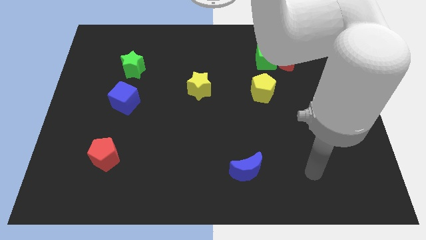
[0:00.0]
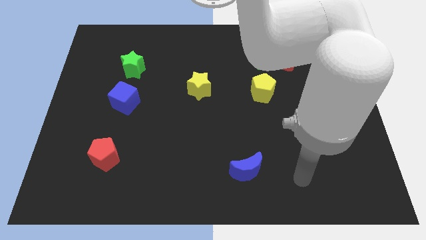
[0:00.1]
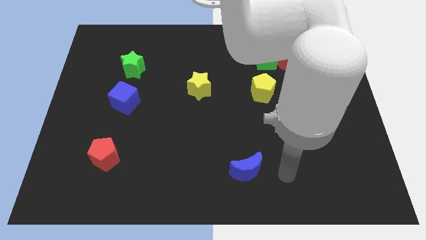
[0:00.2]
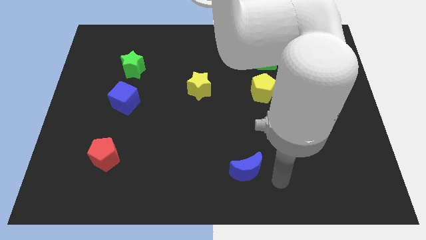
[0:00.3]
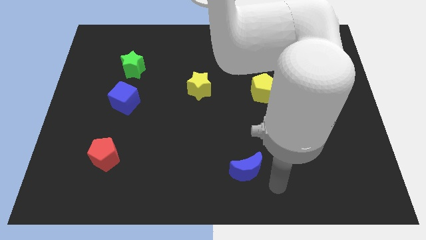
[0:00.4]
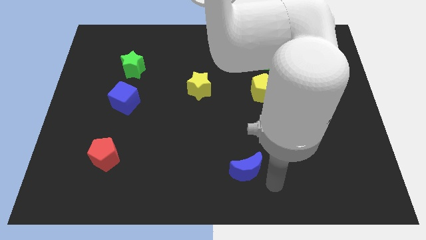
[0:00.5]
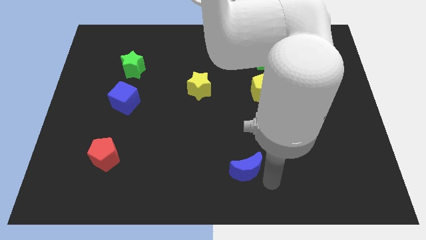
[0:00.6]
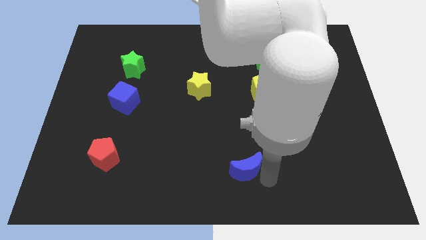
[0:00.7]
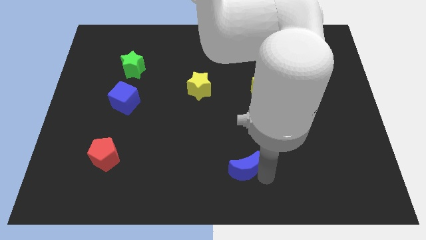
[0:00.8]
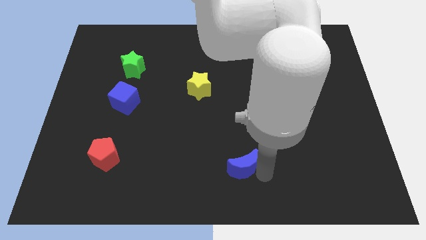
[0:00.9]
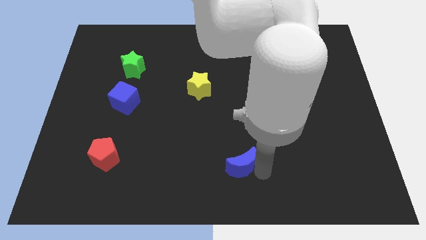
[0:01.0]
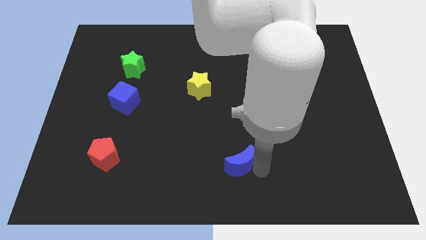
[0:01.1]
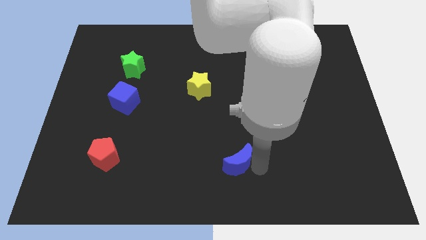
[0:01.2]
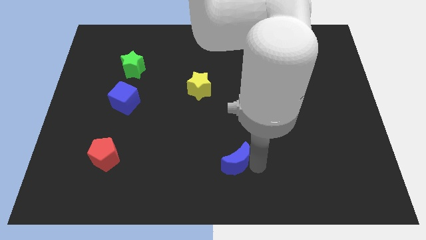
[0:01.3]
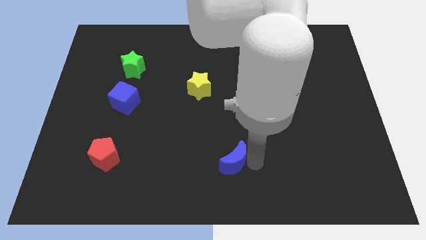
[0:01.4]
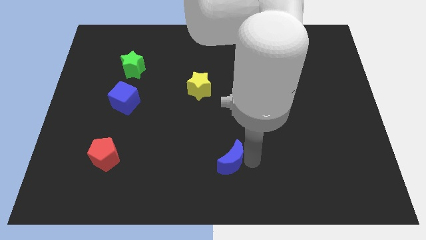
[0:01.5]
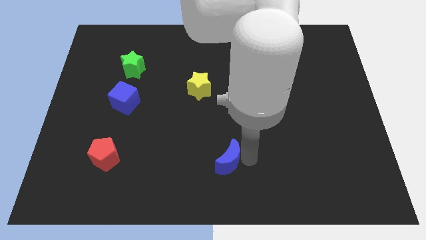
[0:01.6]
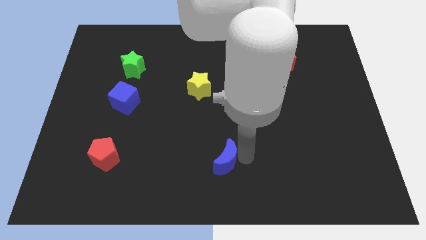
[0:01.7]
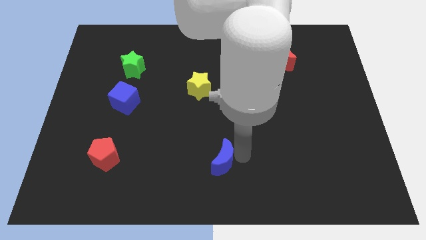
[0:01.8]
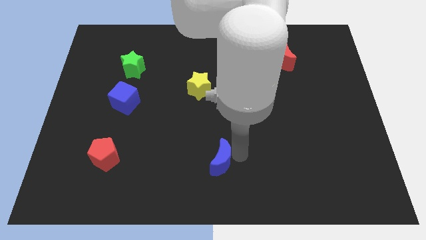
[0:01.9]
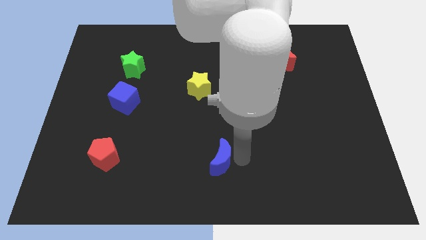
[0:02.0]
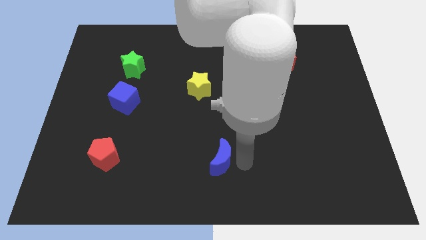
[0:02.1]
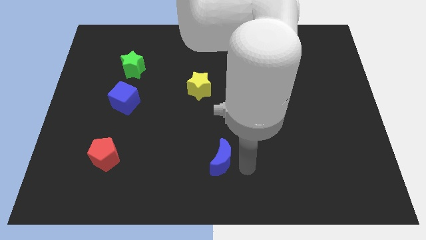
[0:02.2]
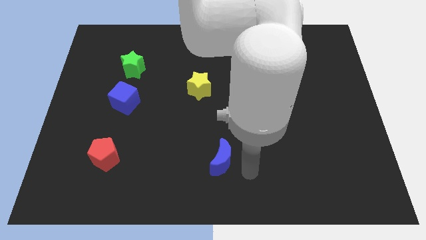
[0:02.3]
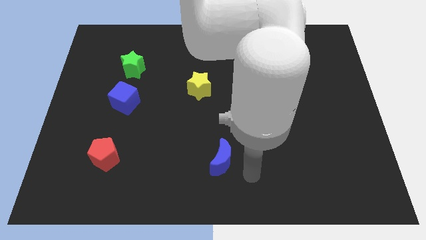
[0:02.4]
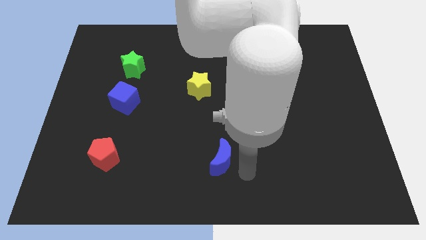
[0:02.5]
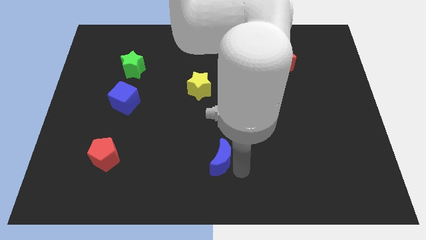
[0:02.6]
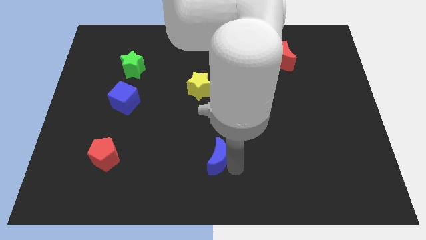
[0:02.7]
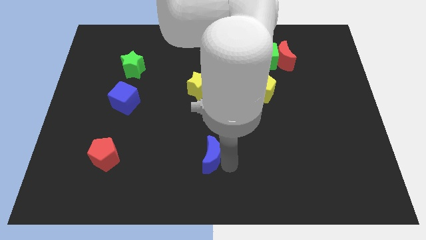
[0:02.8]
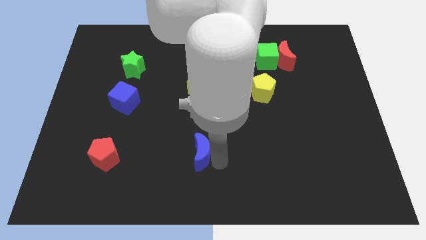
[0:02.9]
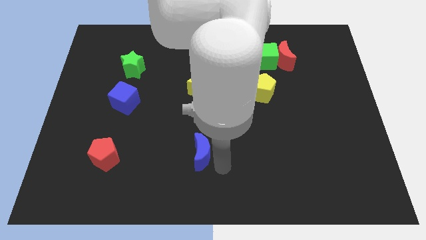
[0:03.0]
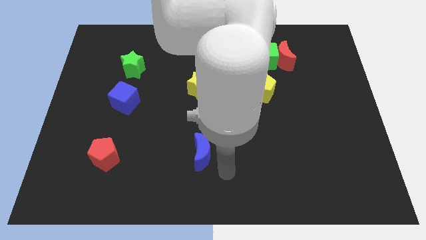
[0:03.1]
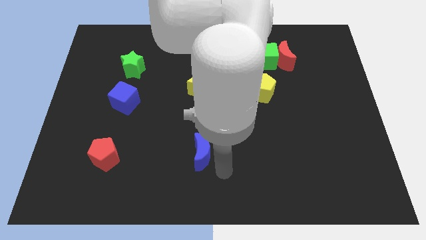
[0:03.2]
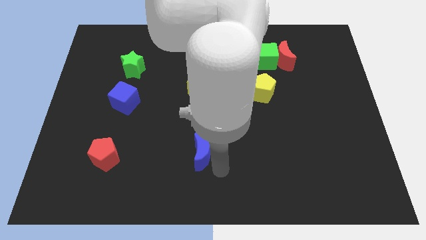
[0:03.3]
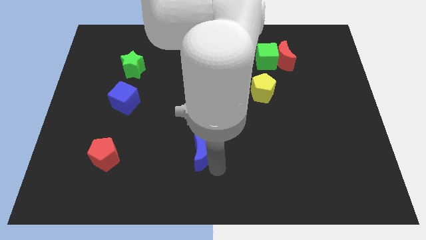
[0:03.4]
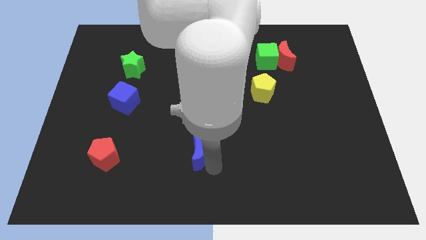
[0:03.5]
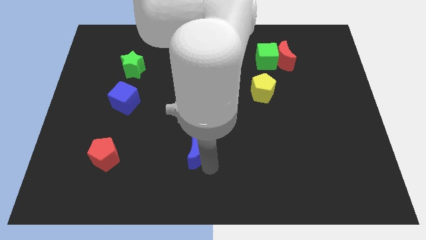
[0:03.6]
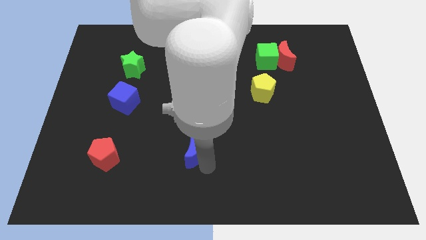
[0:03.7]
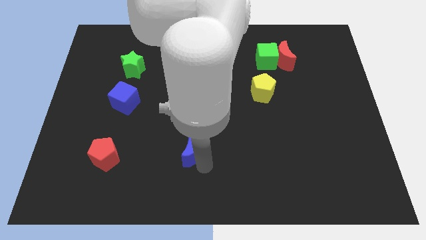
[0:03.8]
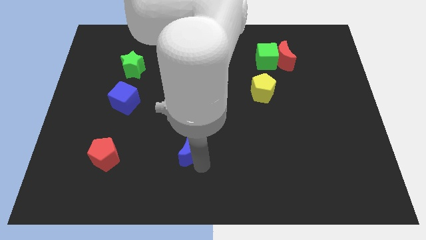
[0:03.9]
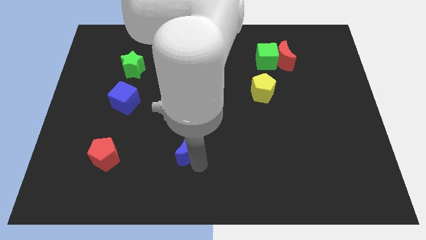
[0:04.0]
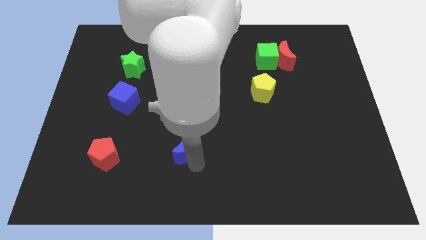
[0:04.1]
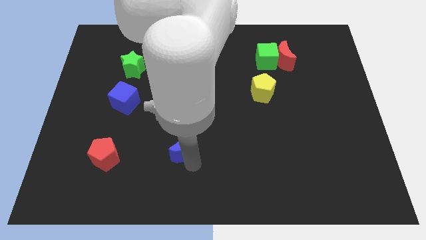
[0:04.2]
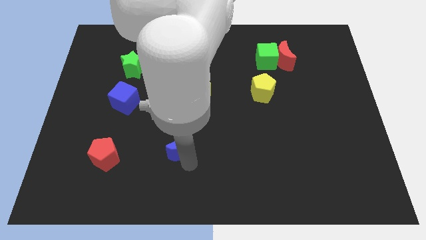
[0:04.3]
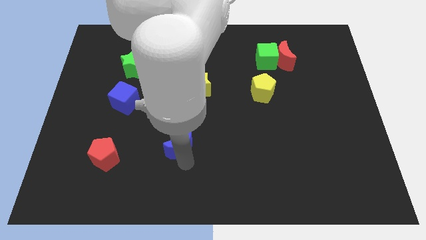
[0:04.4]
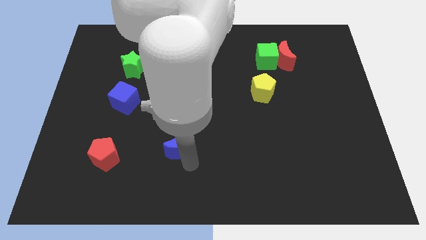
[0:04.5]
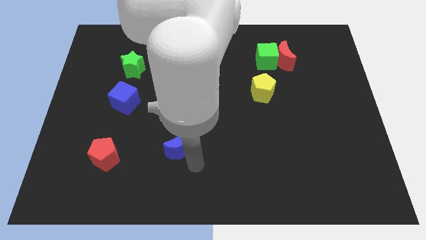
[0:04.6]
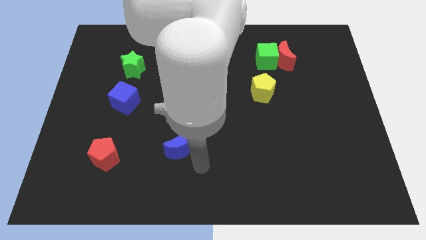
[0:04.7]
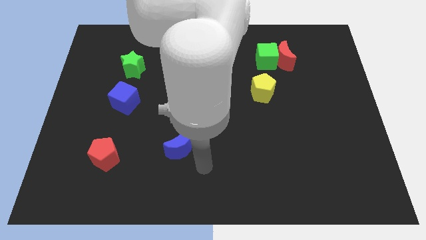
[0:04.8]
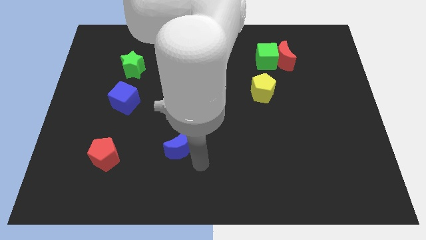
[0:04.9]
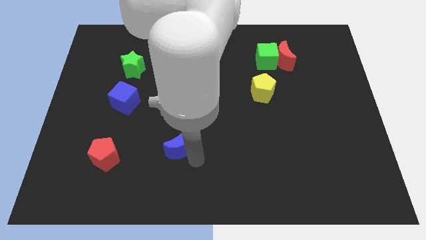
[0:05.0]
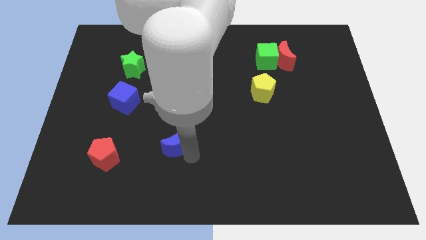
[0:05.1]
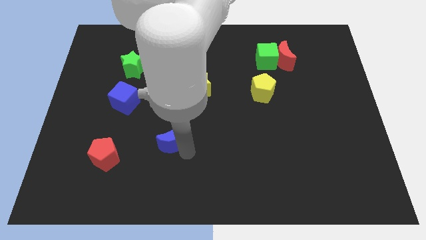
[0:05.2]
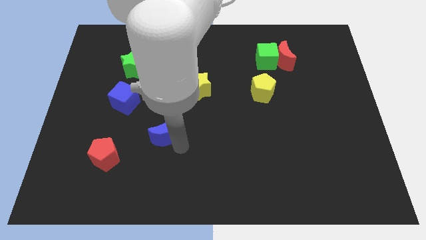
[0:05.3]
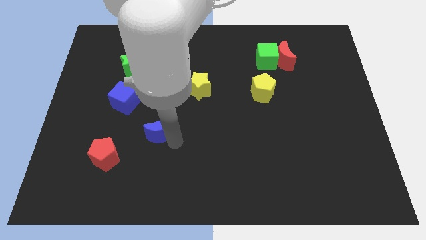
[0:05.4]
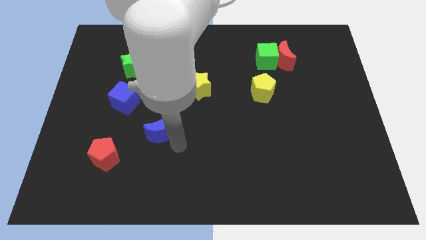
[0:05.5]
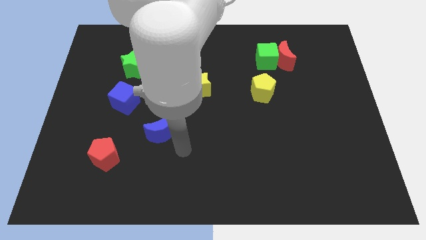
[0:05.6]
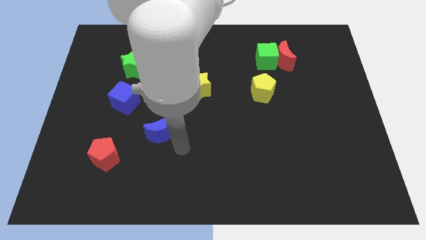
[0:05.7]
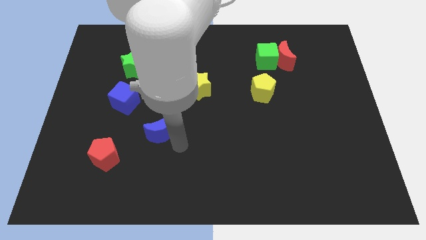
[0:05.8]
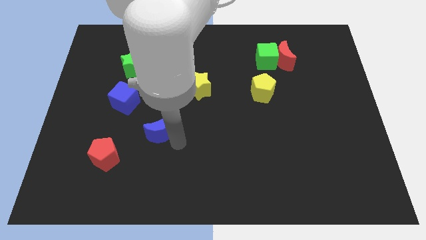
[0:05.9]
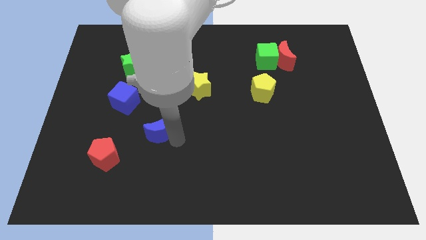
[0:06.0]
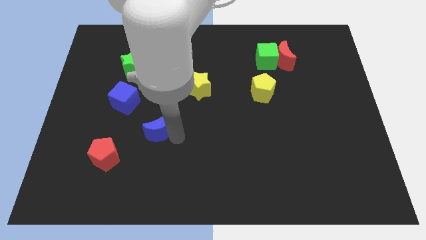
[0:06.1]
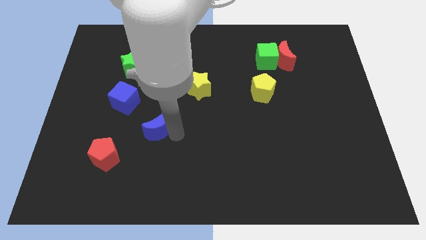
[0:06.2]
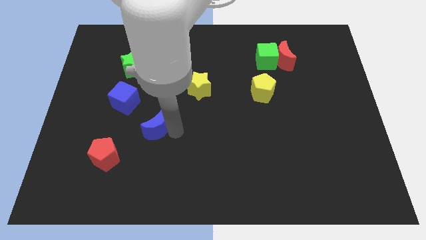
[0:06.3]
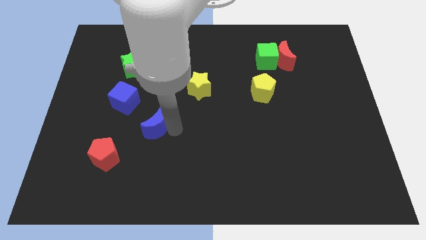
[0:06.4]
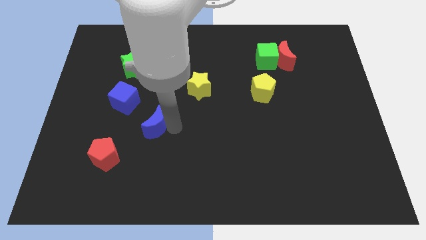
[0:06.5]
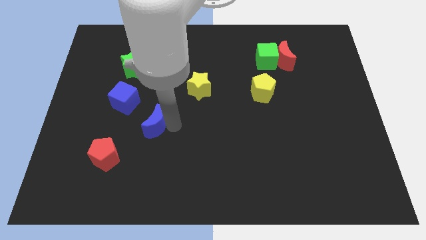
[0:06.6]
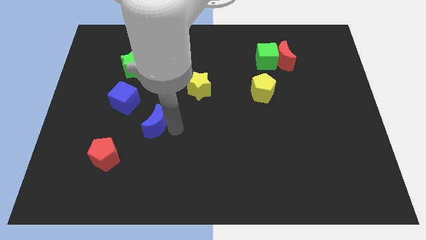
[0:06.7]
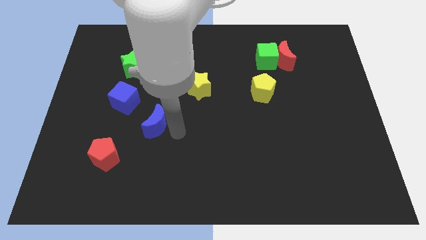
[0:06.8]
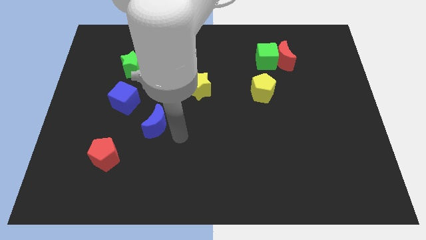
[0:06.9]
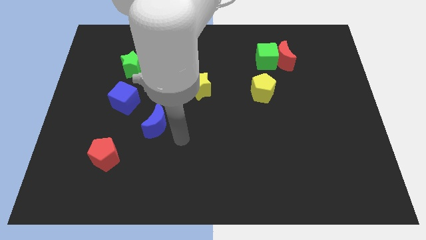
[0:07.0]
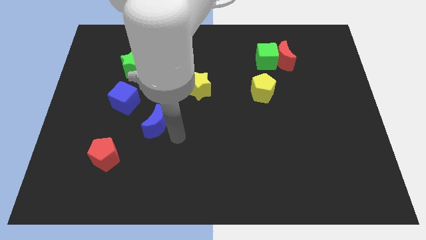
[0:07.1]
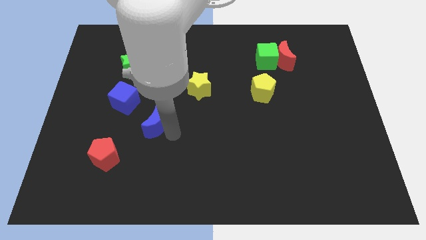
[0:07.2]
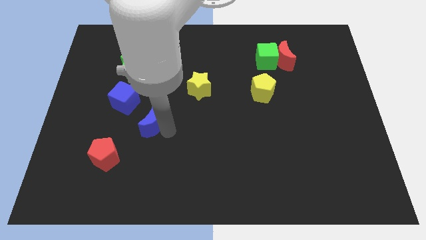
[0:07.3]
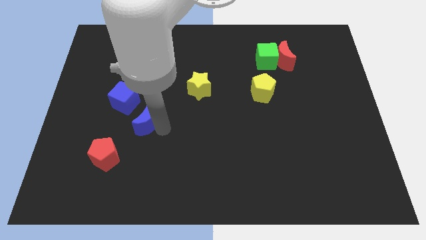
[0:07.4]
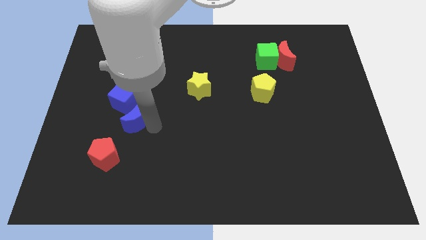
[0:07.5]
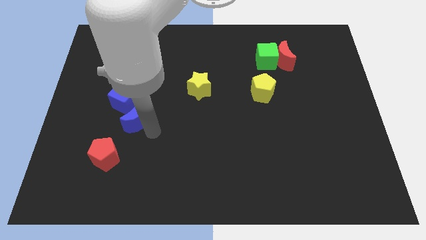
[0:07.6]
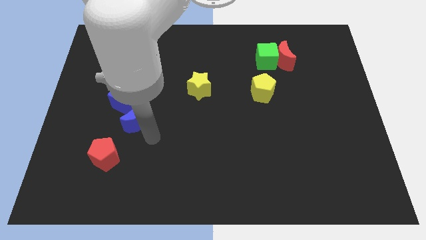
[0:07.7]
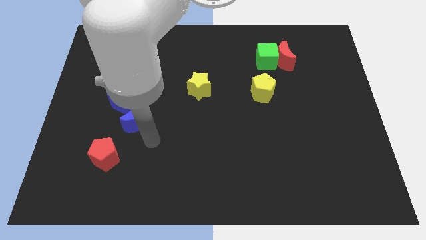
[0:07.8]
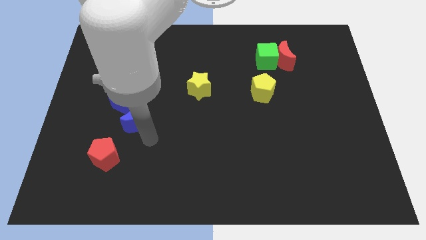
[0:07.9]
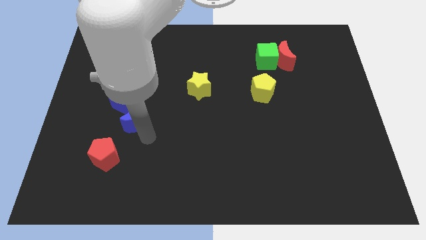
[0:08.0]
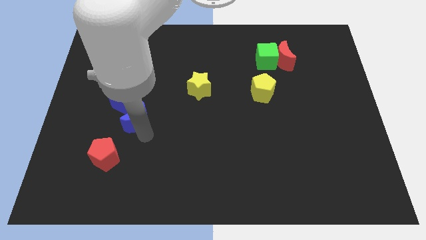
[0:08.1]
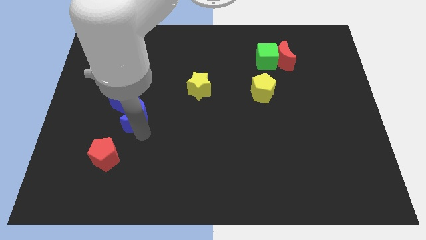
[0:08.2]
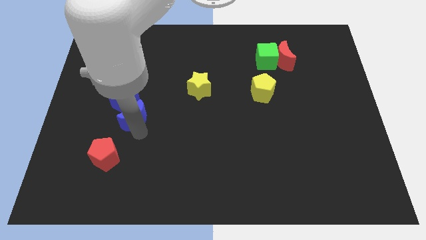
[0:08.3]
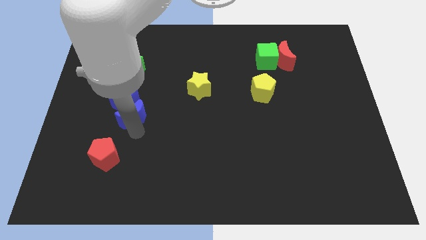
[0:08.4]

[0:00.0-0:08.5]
push the blue moon towards the blue cube
